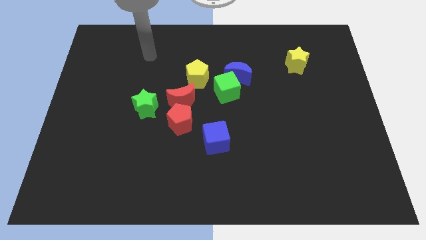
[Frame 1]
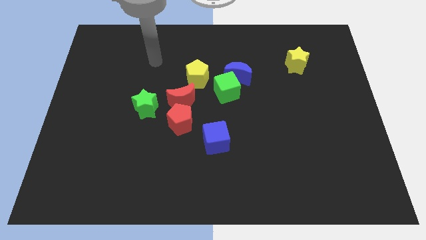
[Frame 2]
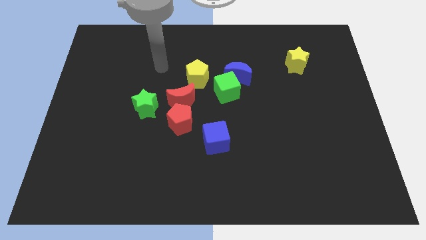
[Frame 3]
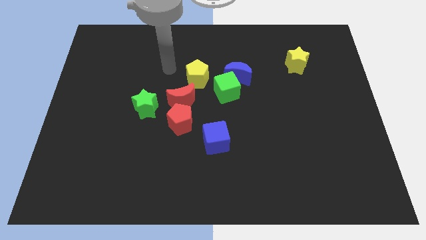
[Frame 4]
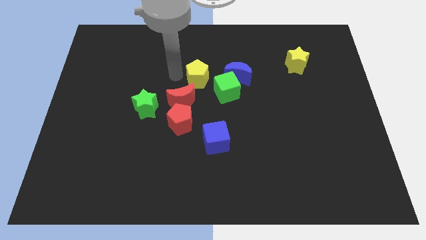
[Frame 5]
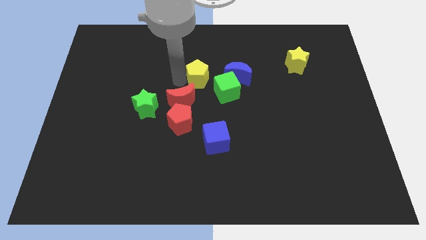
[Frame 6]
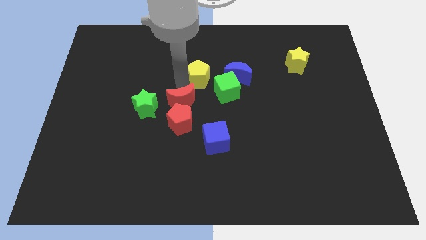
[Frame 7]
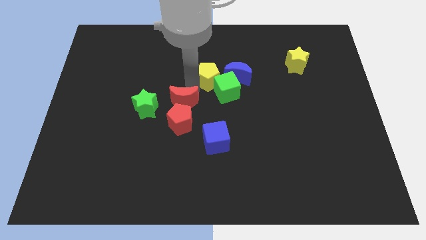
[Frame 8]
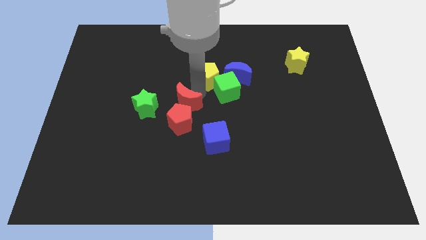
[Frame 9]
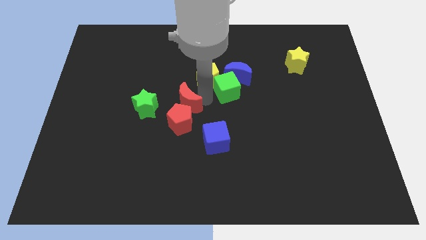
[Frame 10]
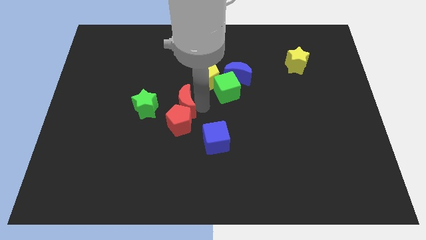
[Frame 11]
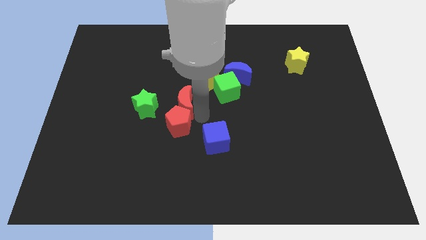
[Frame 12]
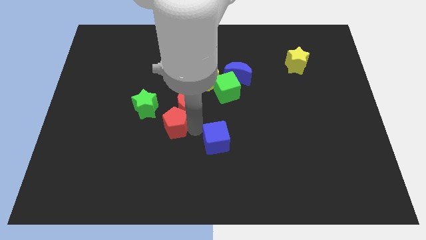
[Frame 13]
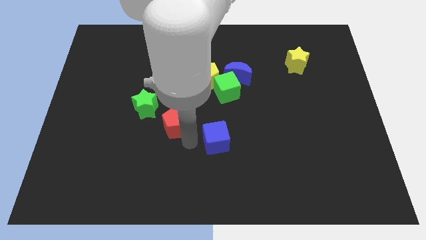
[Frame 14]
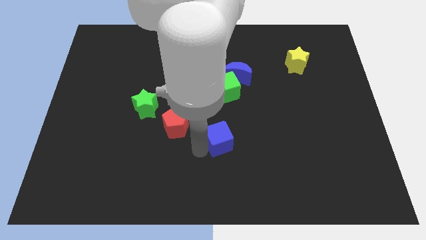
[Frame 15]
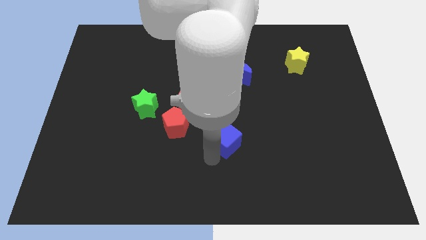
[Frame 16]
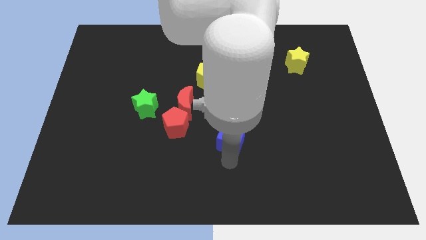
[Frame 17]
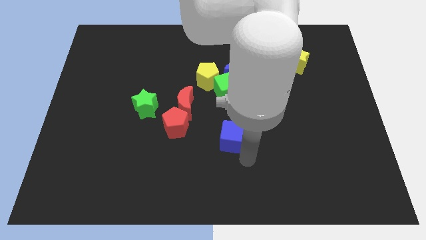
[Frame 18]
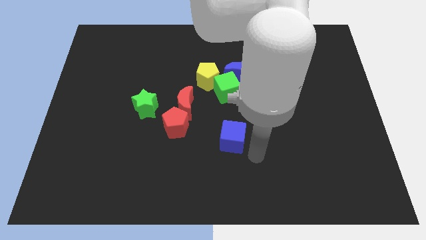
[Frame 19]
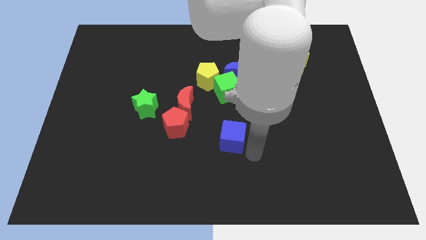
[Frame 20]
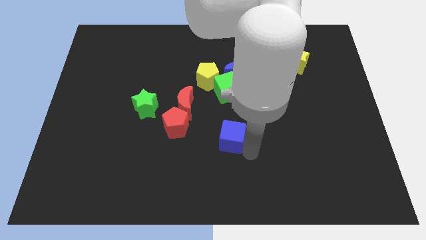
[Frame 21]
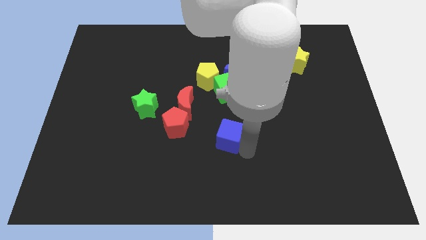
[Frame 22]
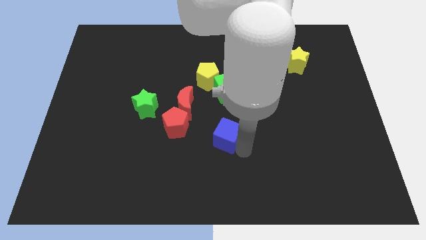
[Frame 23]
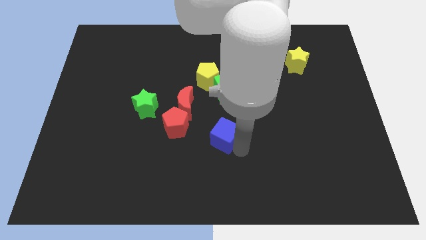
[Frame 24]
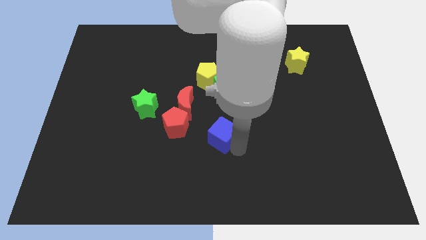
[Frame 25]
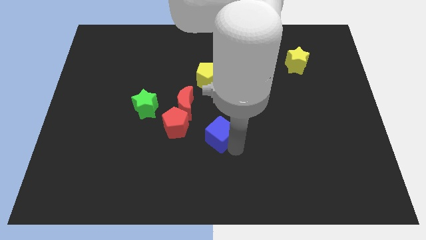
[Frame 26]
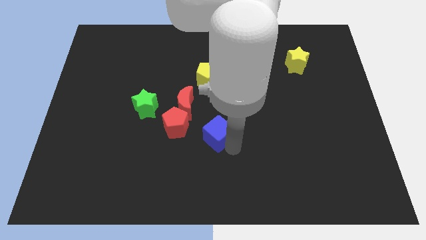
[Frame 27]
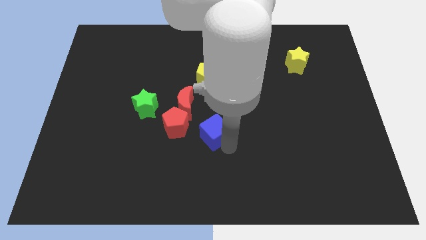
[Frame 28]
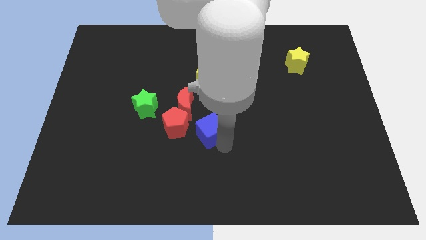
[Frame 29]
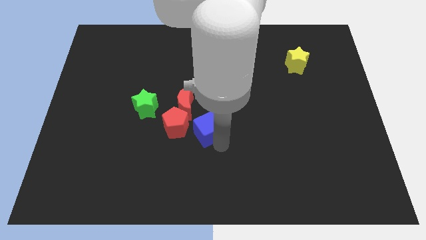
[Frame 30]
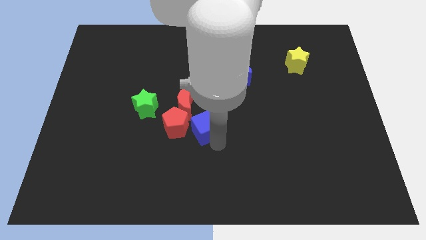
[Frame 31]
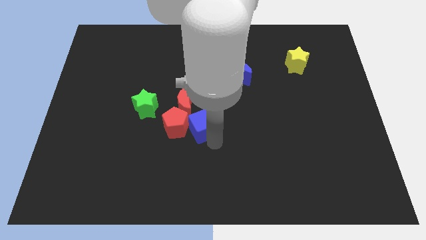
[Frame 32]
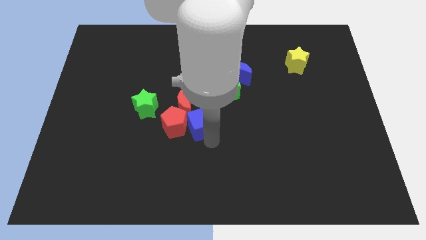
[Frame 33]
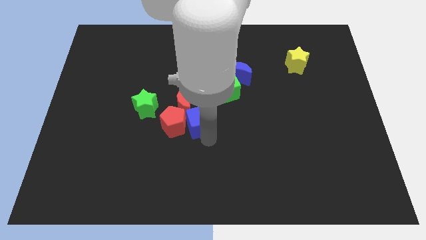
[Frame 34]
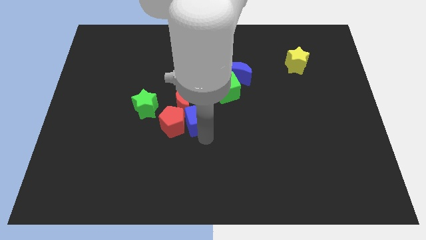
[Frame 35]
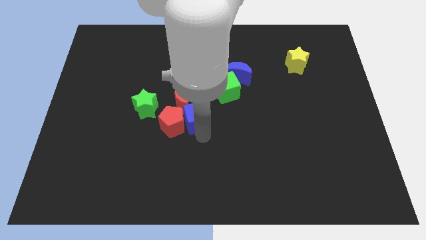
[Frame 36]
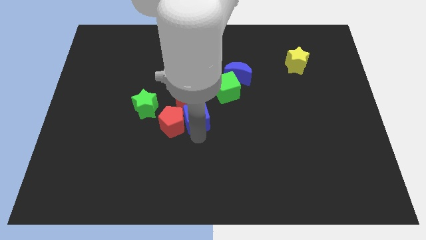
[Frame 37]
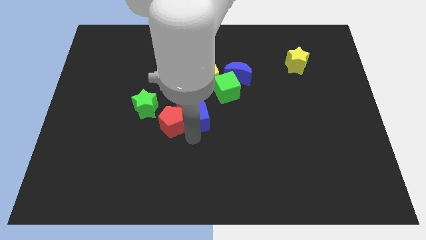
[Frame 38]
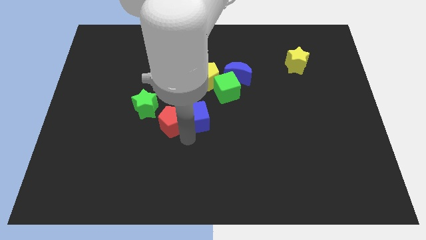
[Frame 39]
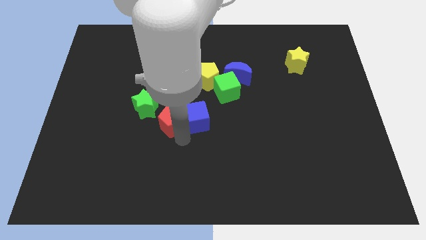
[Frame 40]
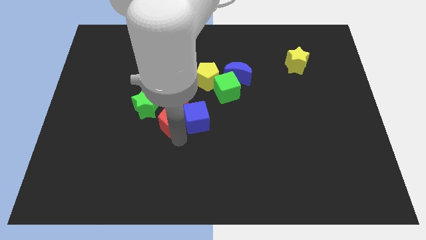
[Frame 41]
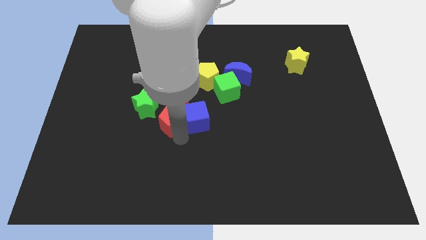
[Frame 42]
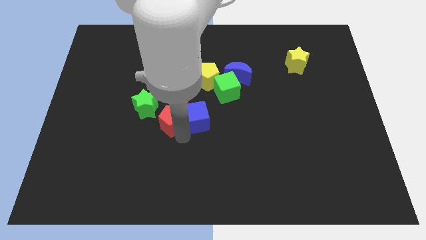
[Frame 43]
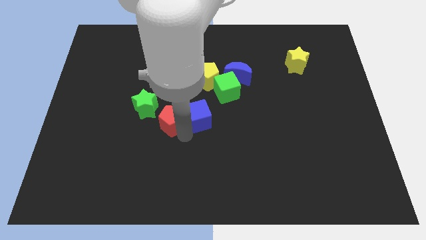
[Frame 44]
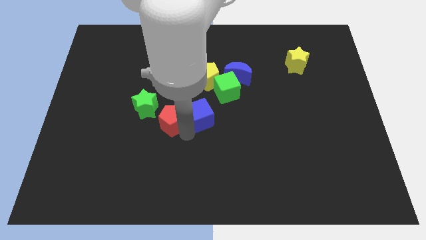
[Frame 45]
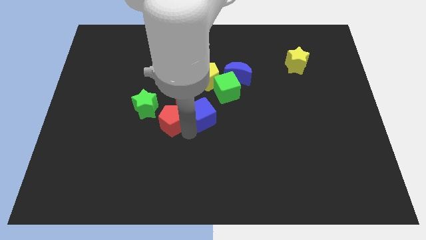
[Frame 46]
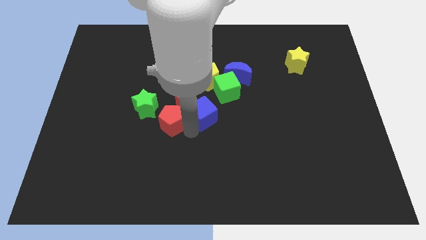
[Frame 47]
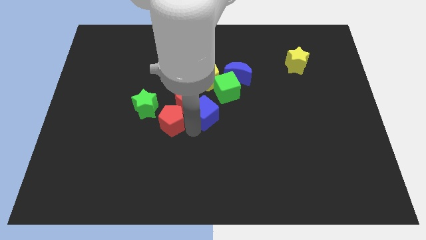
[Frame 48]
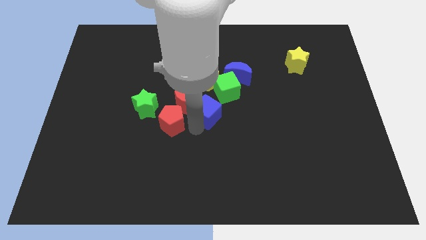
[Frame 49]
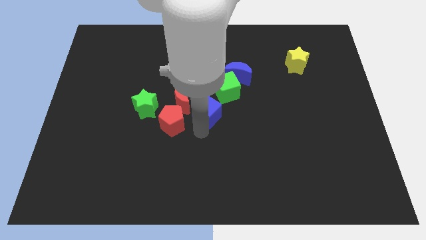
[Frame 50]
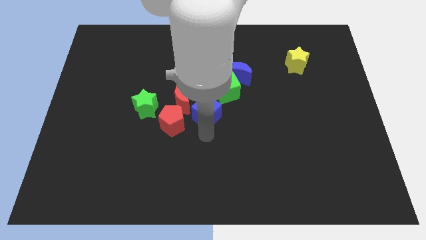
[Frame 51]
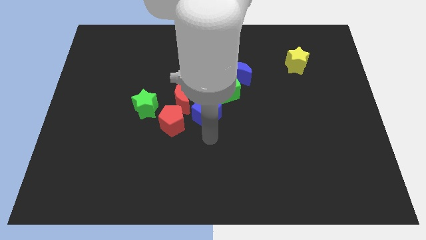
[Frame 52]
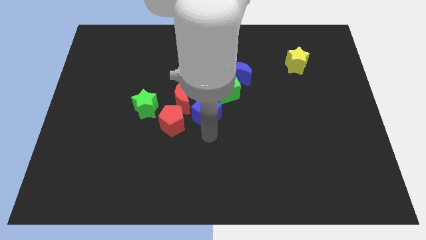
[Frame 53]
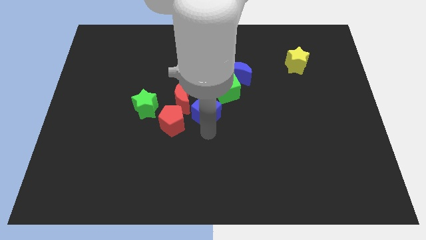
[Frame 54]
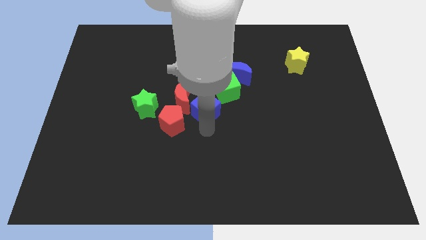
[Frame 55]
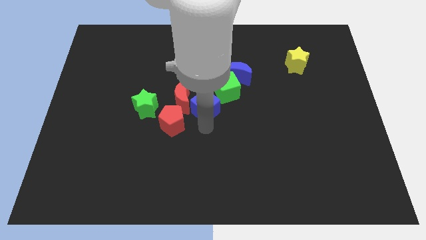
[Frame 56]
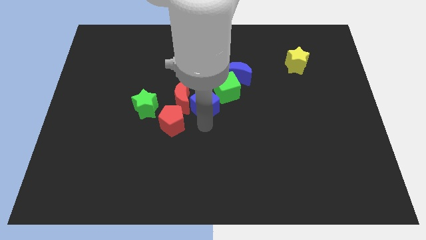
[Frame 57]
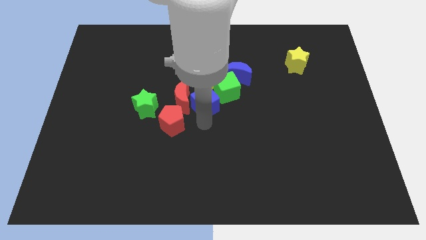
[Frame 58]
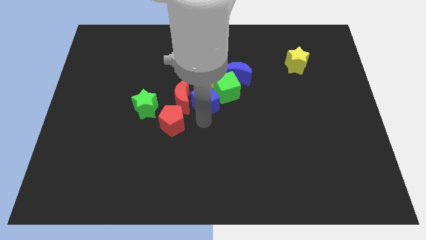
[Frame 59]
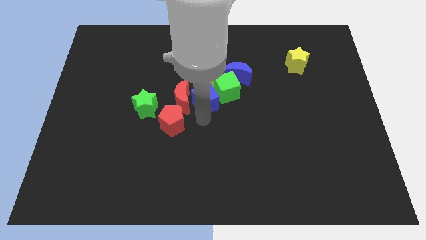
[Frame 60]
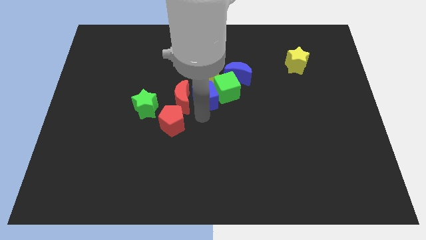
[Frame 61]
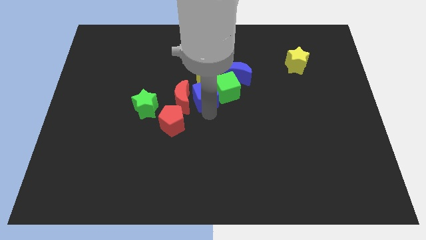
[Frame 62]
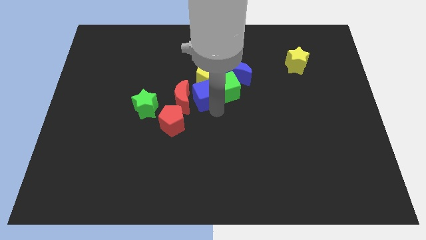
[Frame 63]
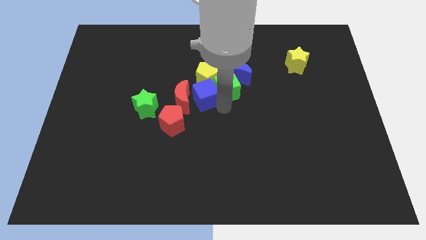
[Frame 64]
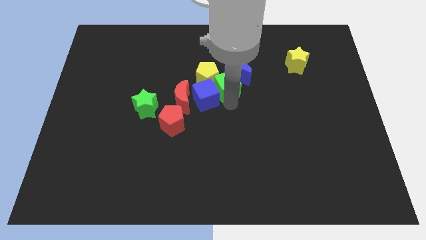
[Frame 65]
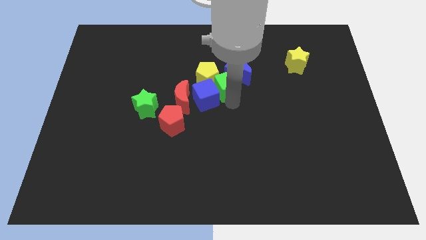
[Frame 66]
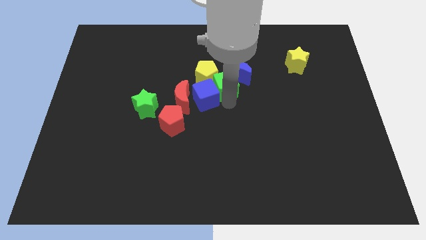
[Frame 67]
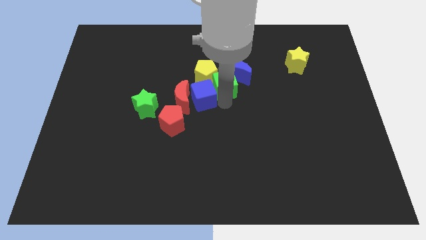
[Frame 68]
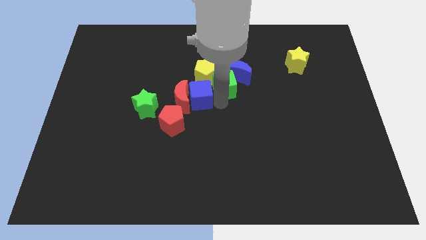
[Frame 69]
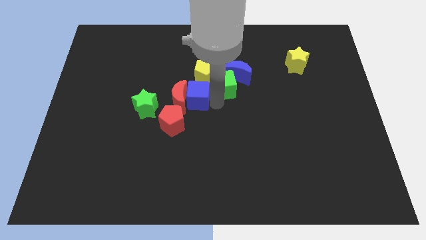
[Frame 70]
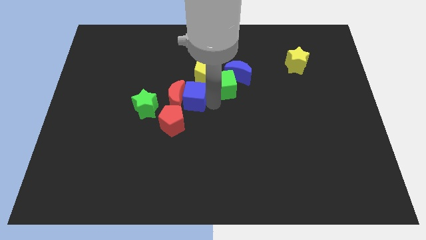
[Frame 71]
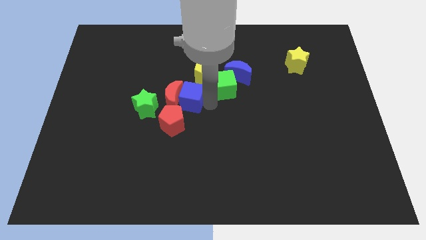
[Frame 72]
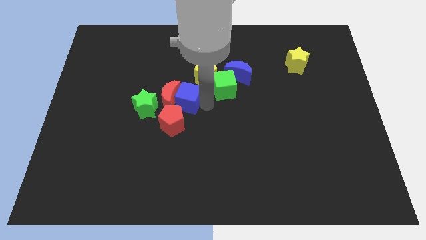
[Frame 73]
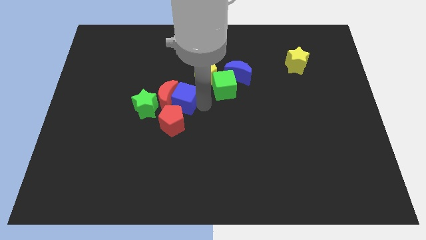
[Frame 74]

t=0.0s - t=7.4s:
push the blue cube to the top right side of the green star
